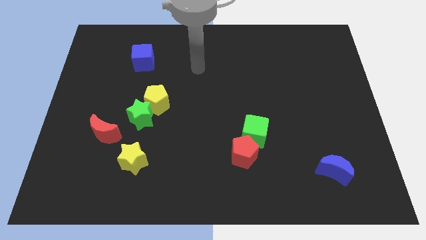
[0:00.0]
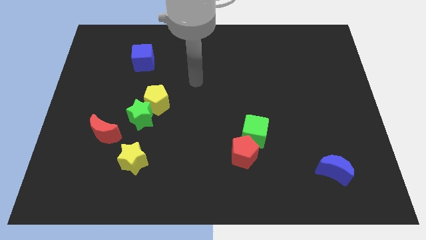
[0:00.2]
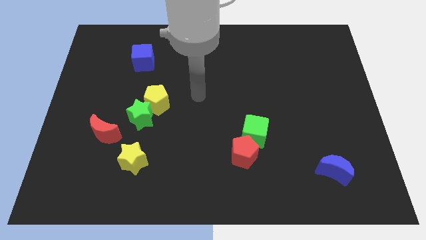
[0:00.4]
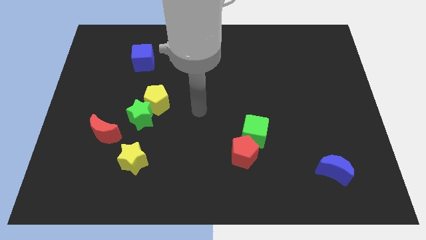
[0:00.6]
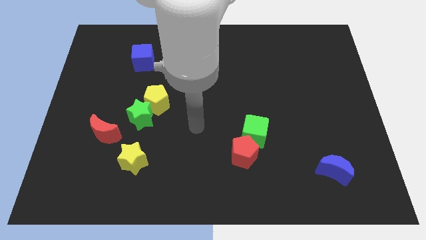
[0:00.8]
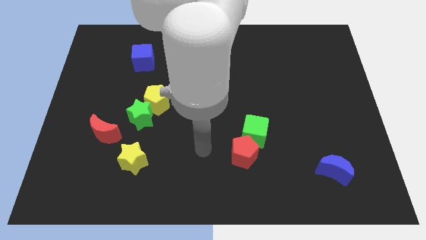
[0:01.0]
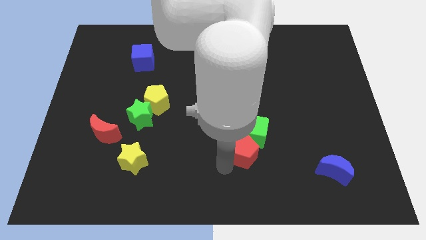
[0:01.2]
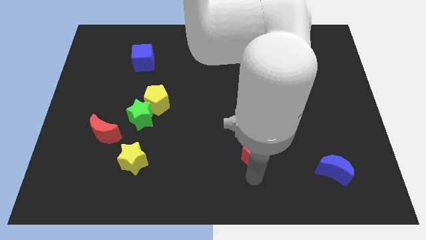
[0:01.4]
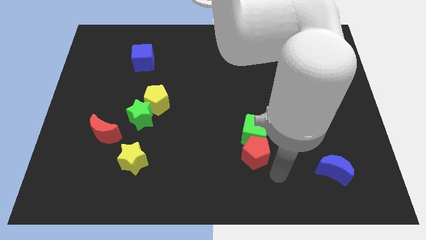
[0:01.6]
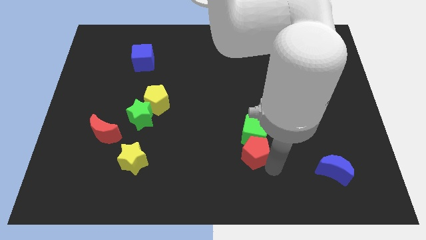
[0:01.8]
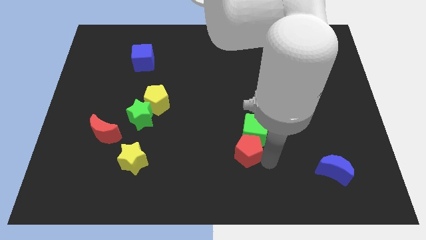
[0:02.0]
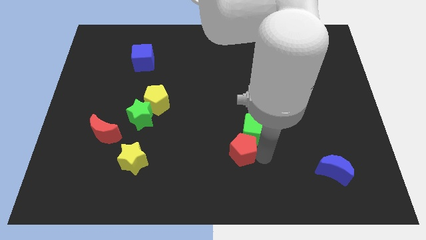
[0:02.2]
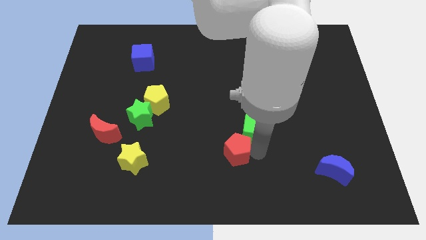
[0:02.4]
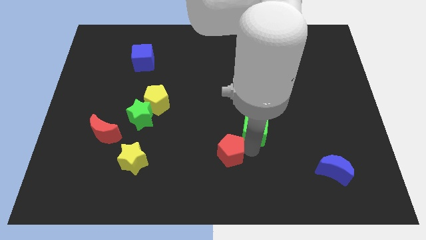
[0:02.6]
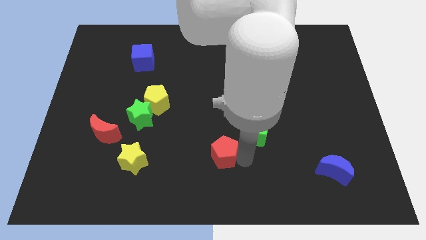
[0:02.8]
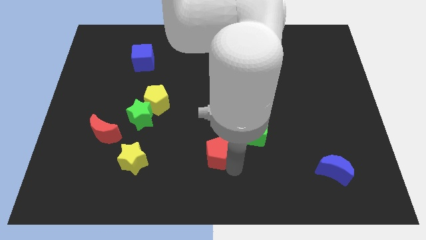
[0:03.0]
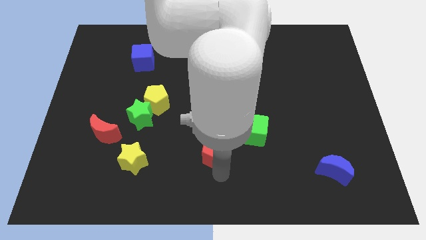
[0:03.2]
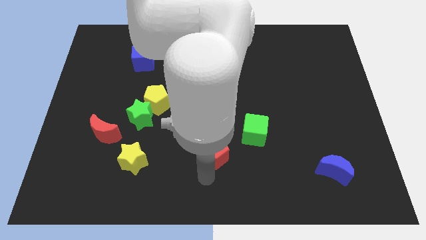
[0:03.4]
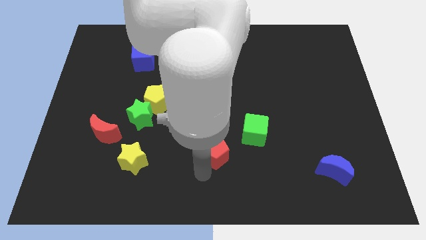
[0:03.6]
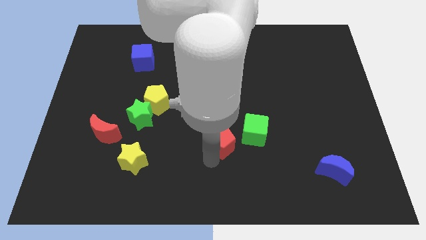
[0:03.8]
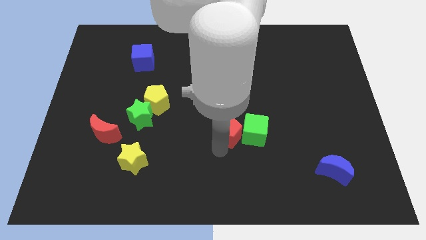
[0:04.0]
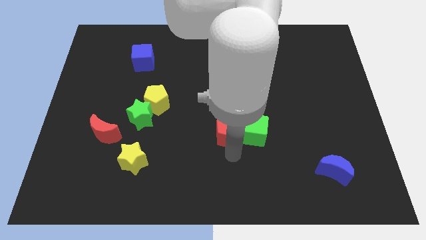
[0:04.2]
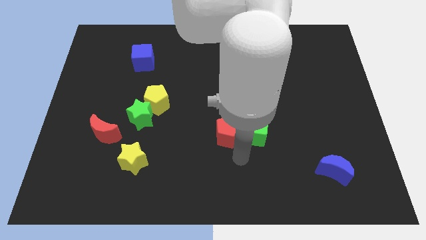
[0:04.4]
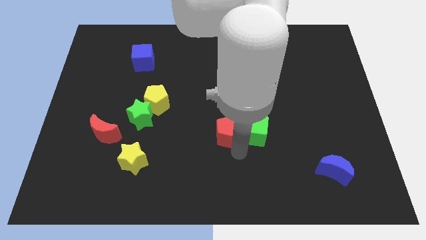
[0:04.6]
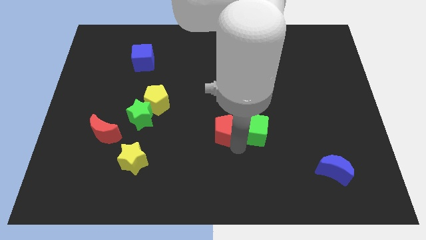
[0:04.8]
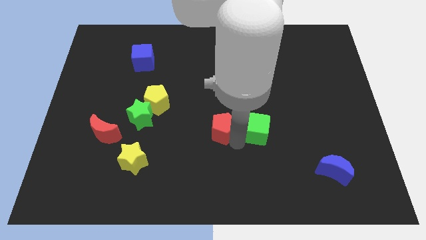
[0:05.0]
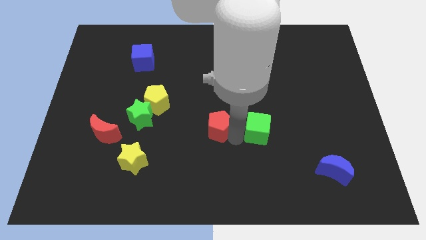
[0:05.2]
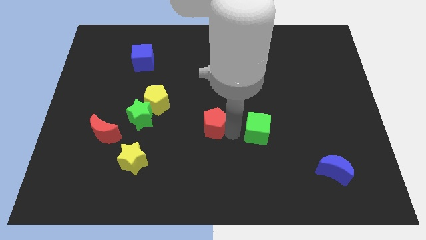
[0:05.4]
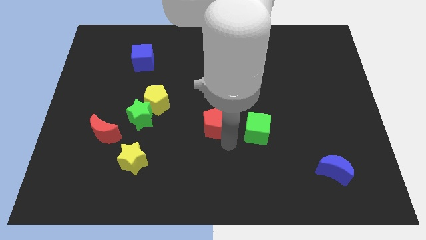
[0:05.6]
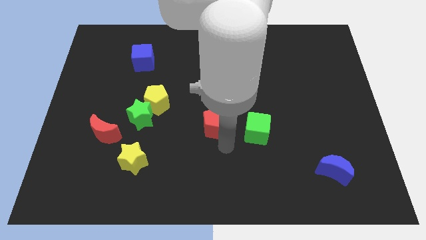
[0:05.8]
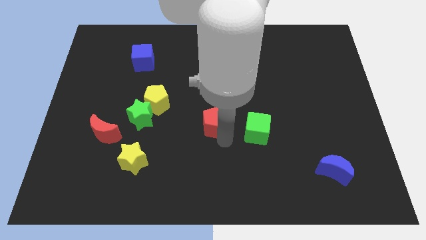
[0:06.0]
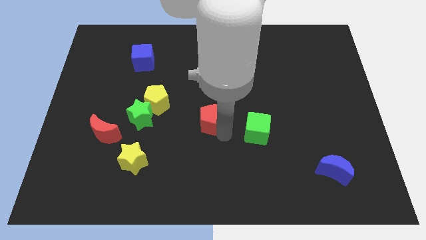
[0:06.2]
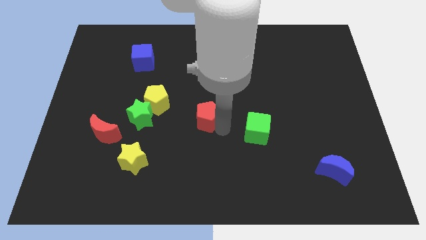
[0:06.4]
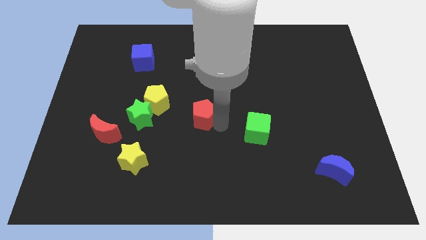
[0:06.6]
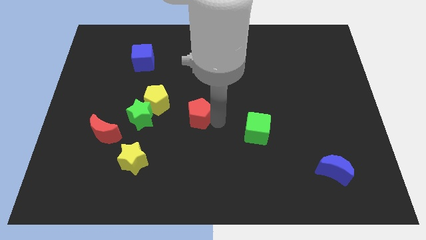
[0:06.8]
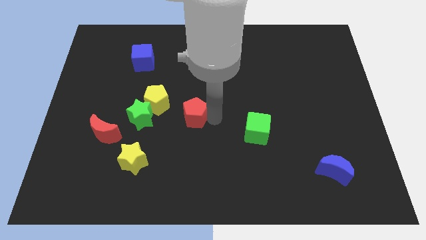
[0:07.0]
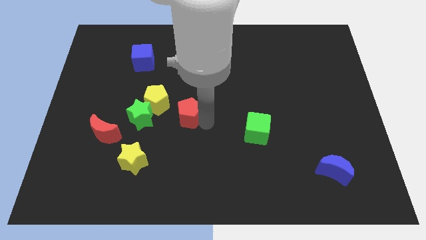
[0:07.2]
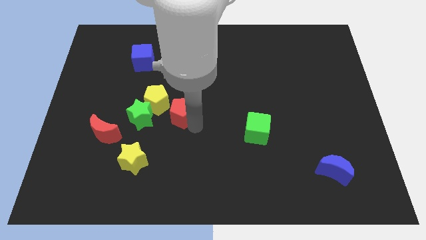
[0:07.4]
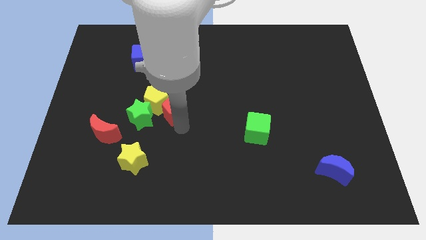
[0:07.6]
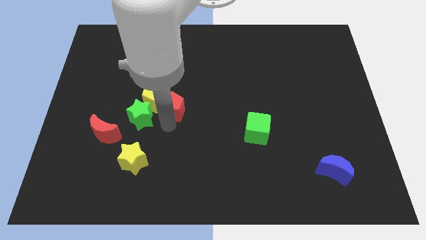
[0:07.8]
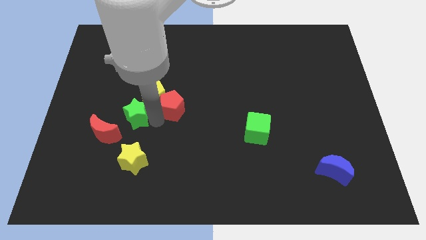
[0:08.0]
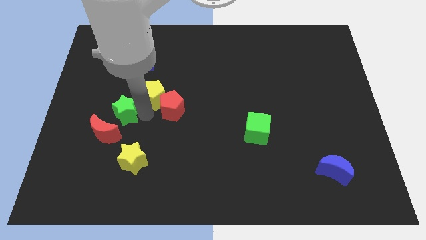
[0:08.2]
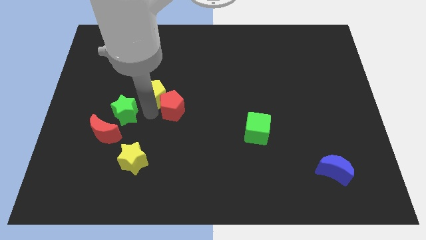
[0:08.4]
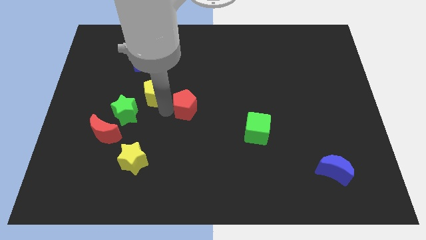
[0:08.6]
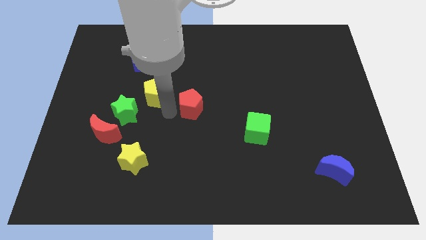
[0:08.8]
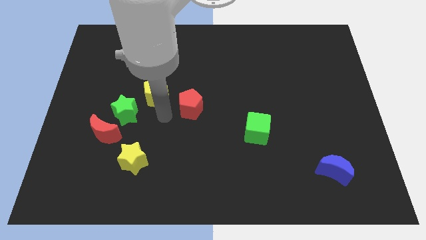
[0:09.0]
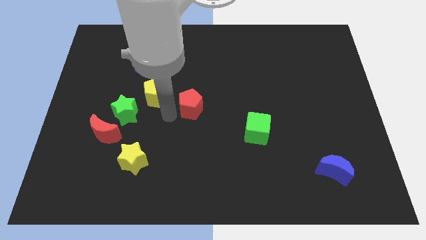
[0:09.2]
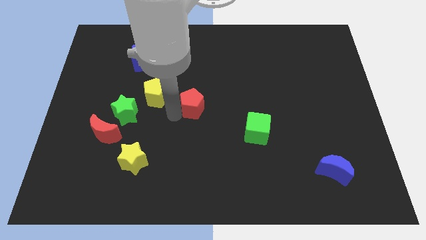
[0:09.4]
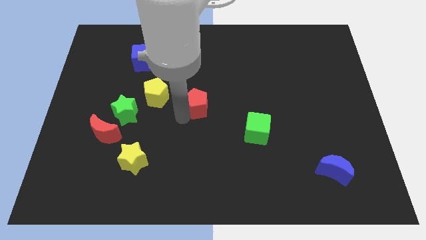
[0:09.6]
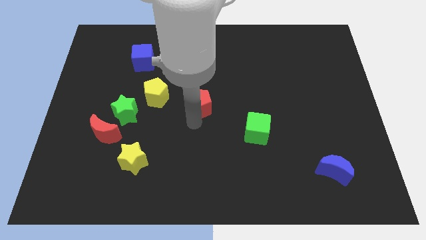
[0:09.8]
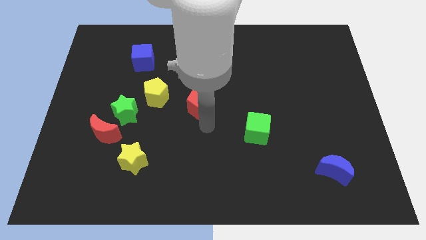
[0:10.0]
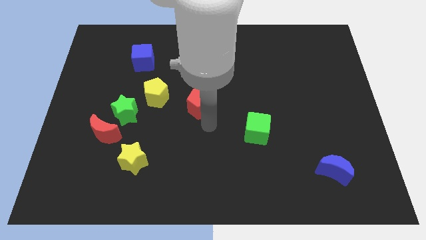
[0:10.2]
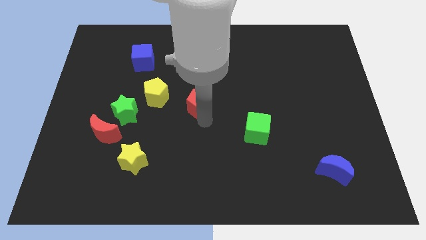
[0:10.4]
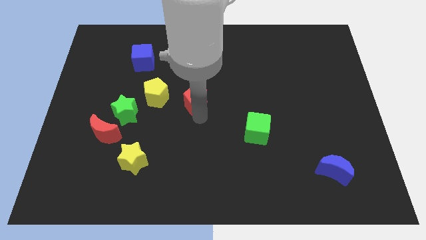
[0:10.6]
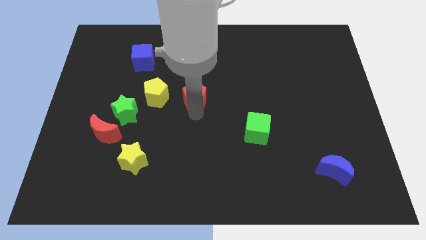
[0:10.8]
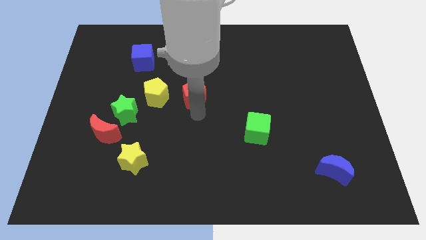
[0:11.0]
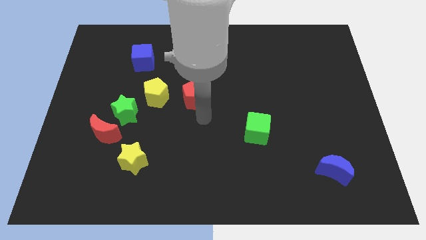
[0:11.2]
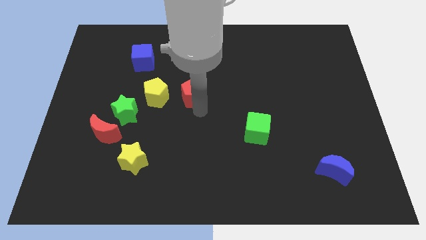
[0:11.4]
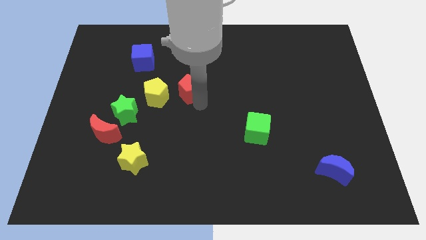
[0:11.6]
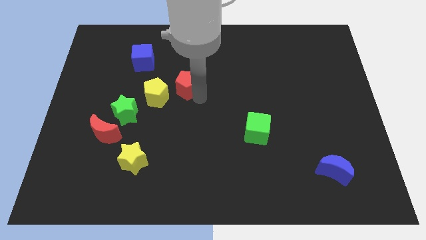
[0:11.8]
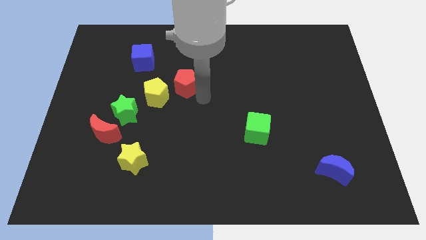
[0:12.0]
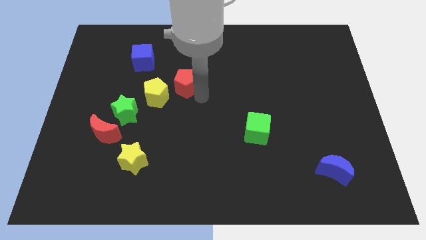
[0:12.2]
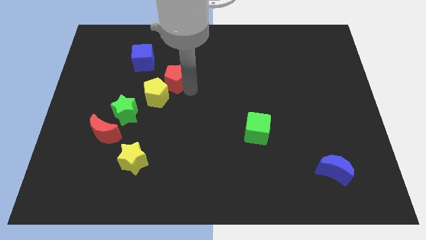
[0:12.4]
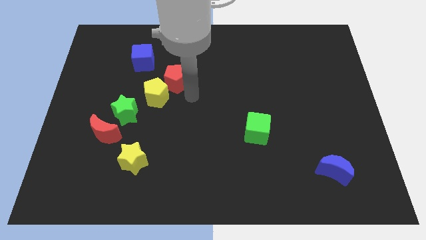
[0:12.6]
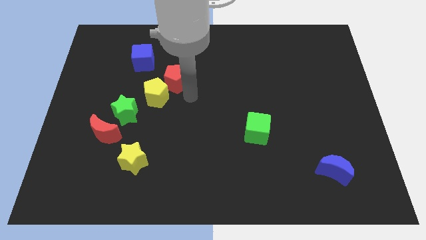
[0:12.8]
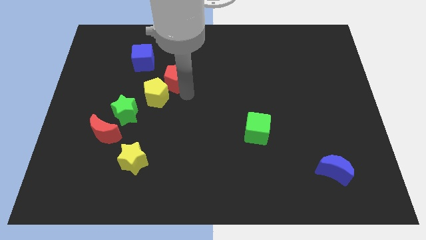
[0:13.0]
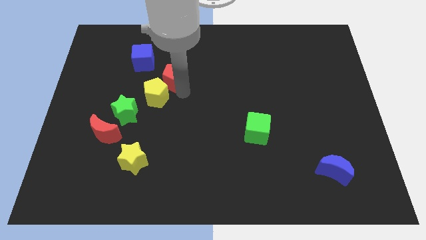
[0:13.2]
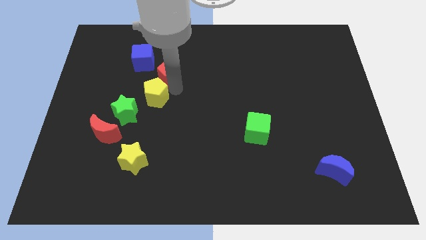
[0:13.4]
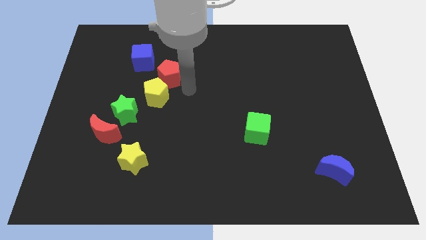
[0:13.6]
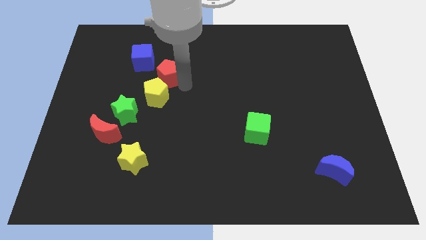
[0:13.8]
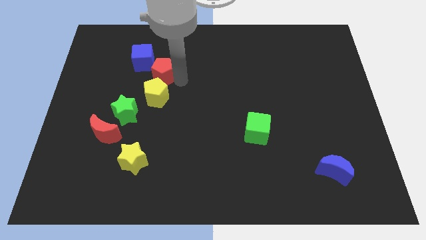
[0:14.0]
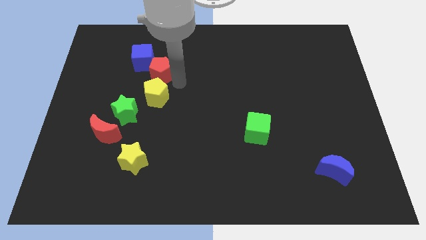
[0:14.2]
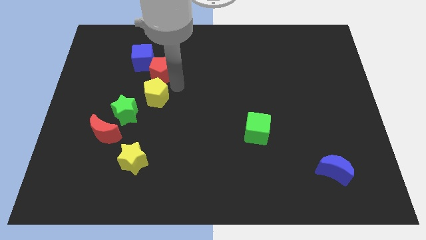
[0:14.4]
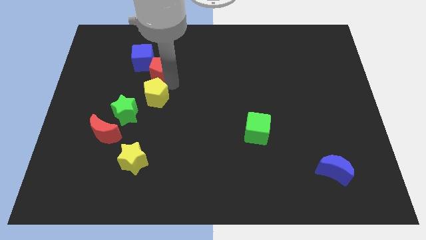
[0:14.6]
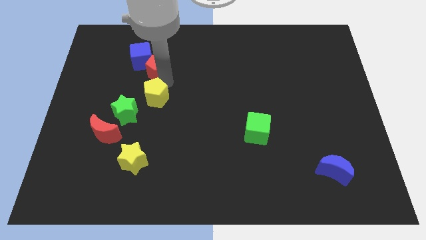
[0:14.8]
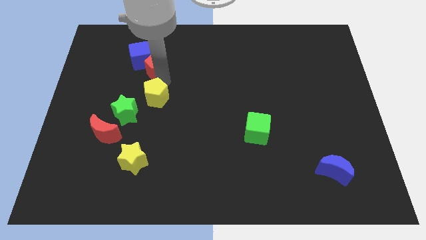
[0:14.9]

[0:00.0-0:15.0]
slide the red pentagon towards the blue cube
